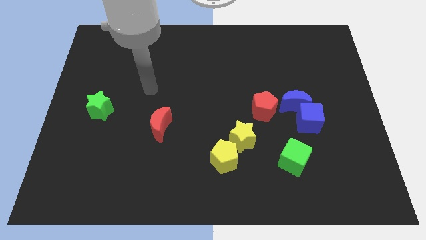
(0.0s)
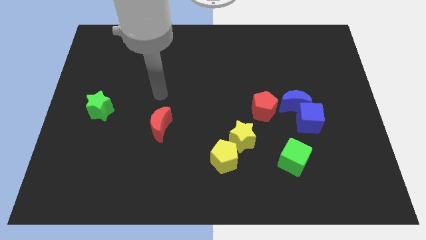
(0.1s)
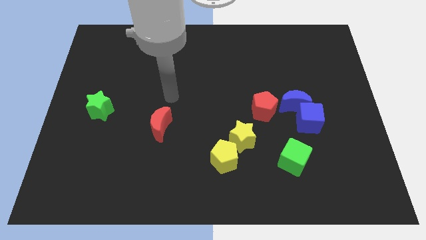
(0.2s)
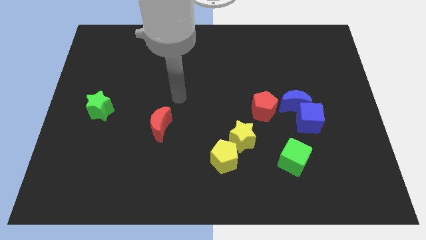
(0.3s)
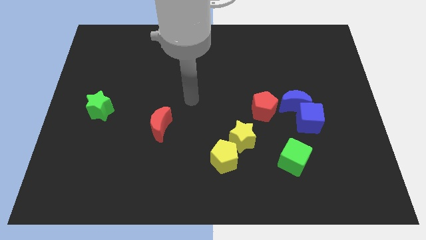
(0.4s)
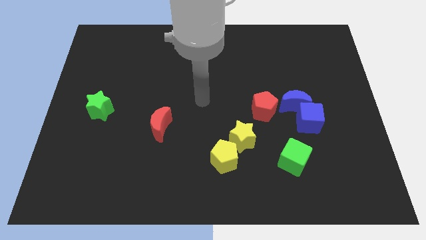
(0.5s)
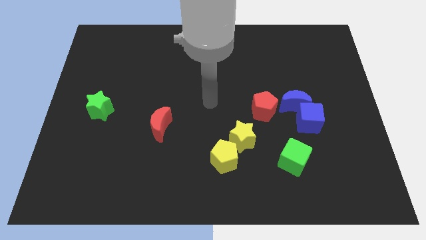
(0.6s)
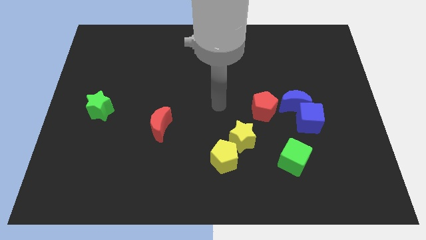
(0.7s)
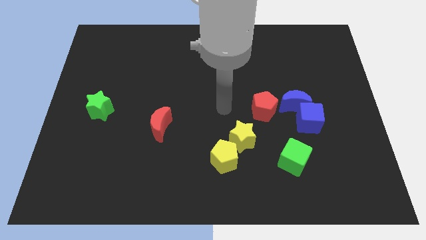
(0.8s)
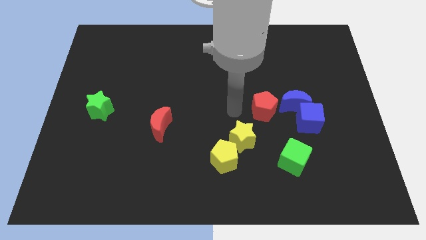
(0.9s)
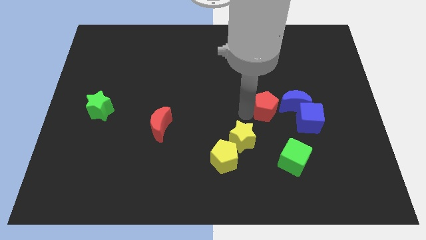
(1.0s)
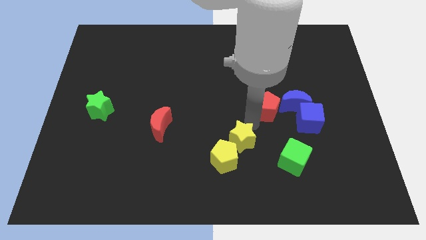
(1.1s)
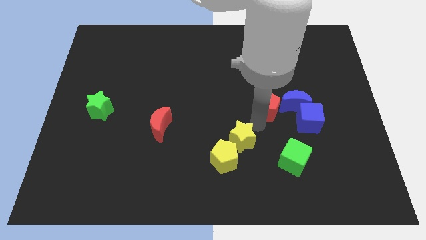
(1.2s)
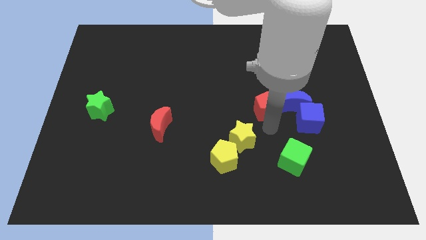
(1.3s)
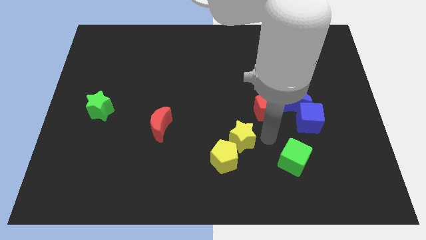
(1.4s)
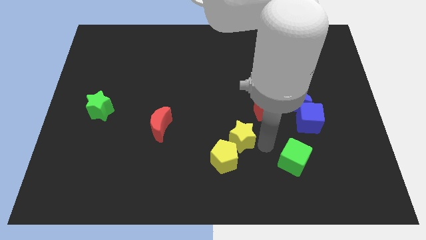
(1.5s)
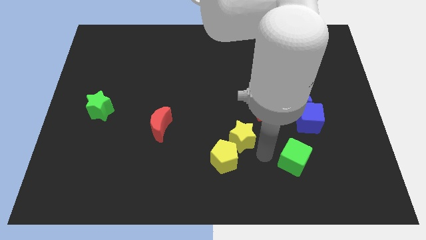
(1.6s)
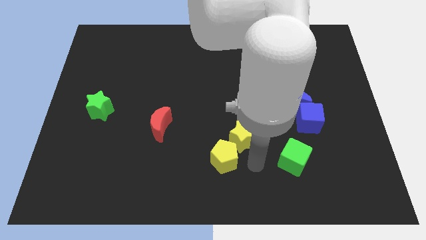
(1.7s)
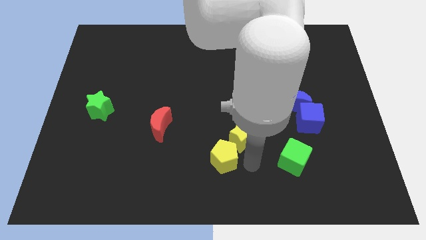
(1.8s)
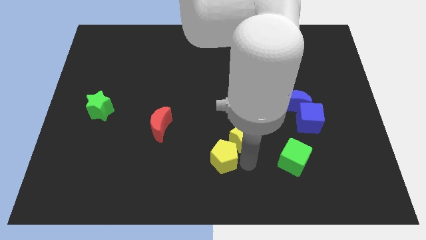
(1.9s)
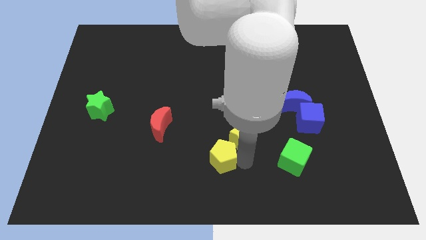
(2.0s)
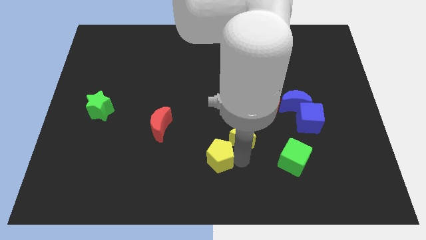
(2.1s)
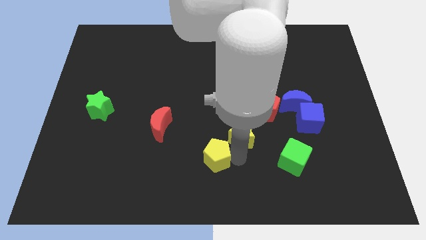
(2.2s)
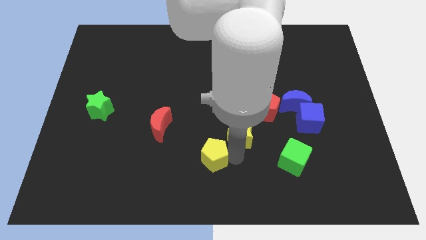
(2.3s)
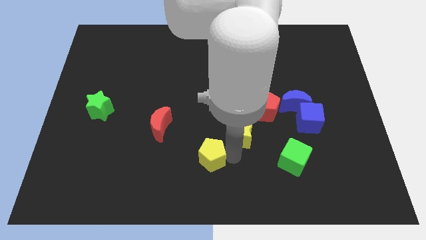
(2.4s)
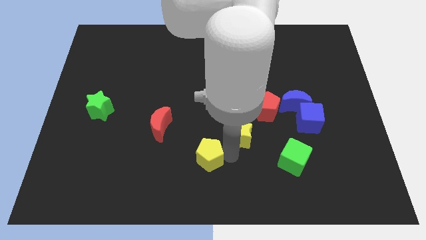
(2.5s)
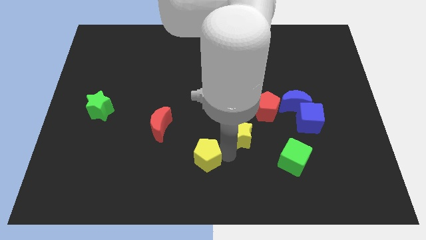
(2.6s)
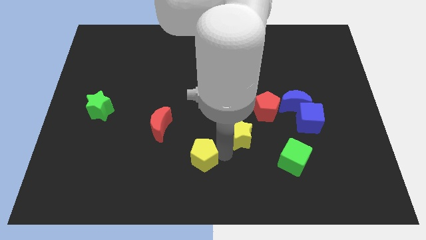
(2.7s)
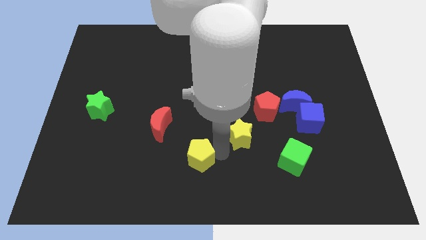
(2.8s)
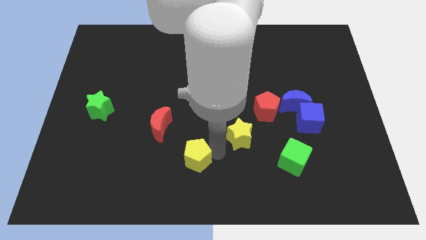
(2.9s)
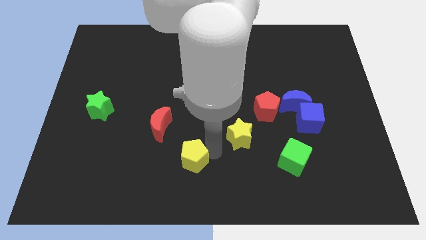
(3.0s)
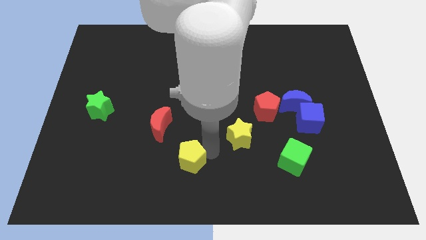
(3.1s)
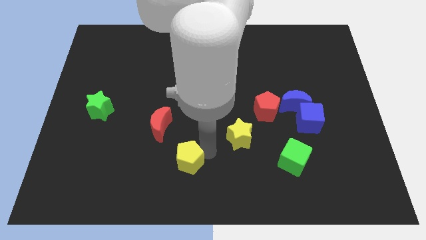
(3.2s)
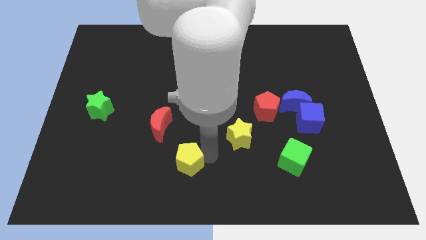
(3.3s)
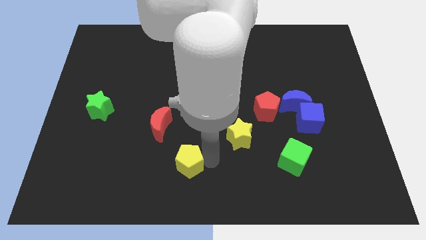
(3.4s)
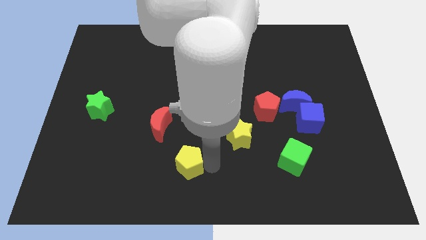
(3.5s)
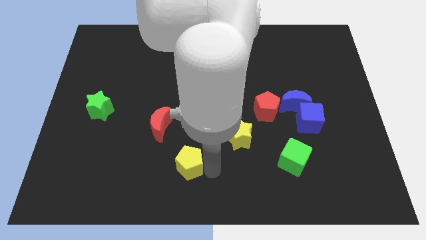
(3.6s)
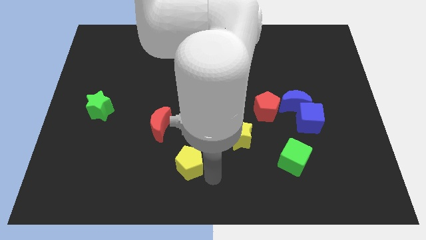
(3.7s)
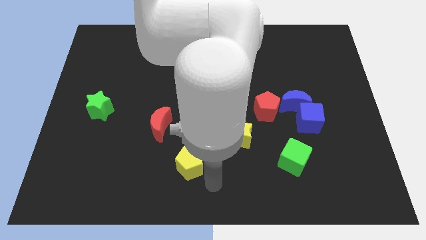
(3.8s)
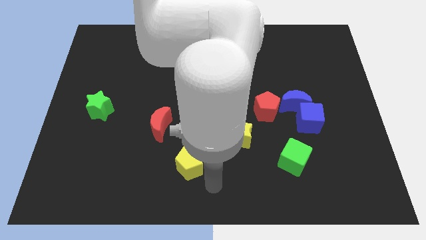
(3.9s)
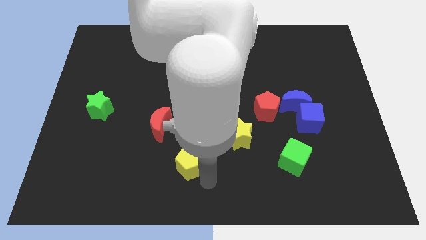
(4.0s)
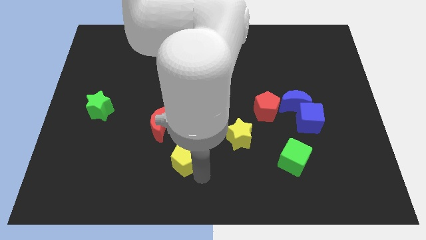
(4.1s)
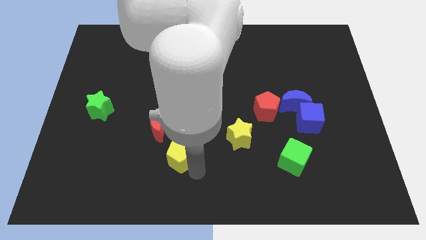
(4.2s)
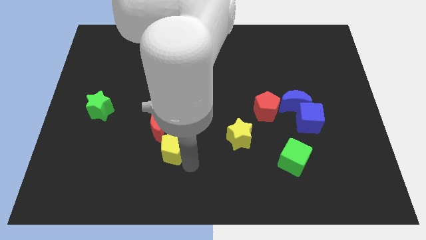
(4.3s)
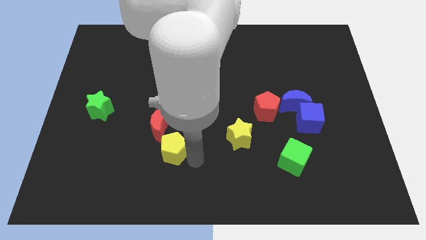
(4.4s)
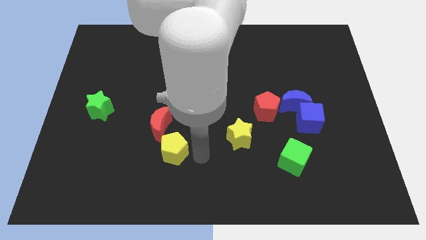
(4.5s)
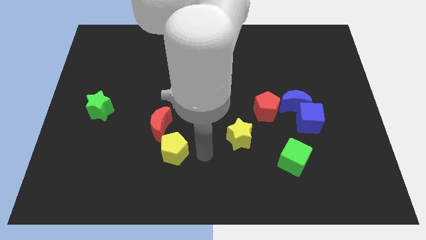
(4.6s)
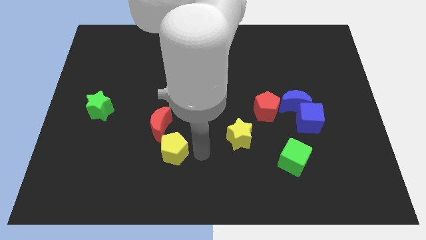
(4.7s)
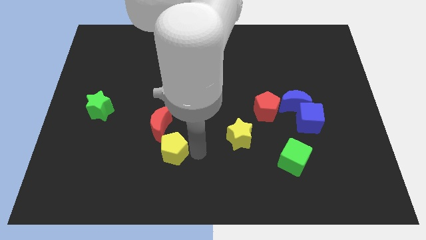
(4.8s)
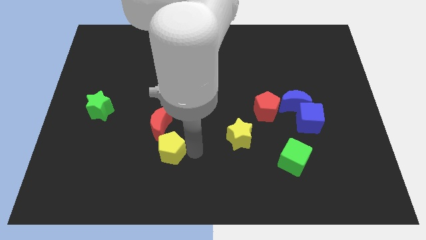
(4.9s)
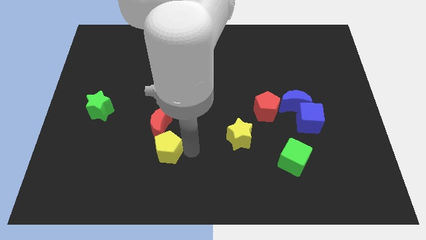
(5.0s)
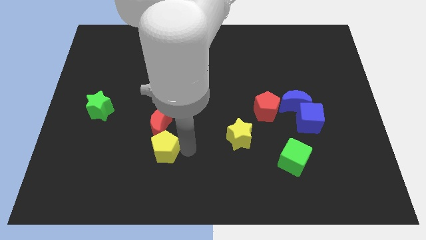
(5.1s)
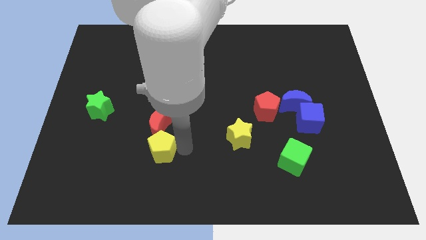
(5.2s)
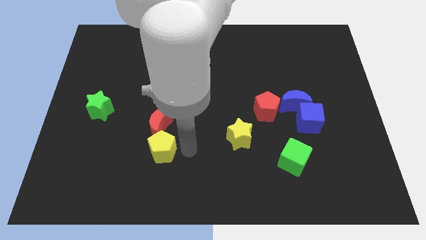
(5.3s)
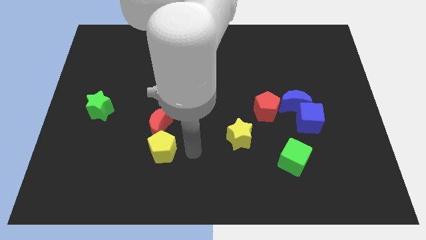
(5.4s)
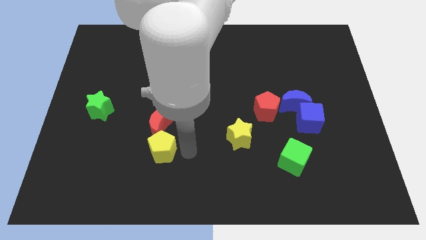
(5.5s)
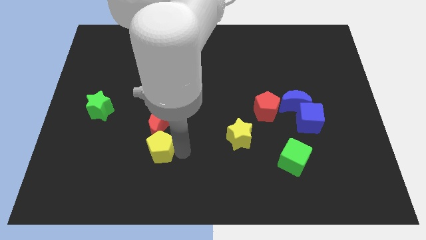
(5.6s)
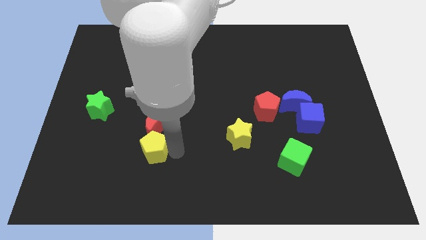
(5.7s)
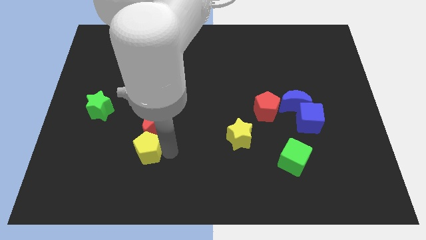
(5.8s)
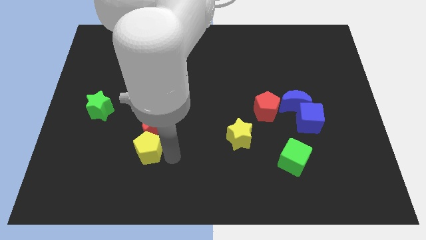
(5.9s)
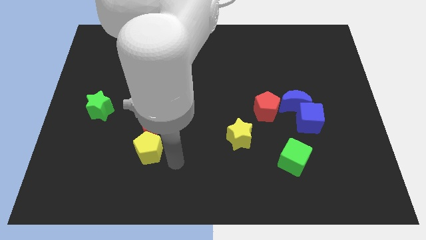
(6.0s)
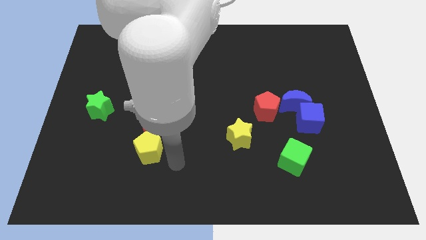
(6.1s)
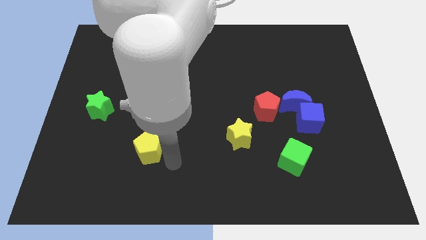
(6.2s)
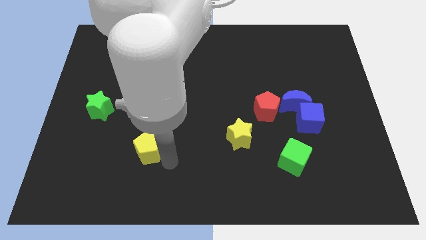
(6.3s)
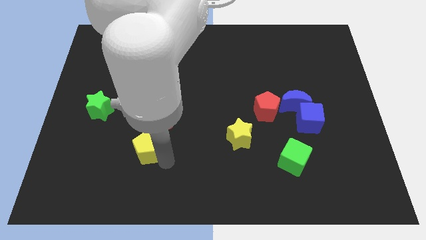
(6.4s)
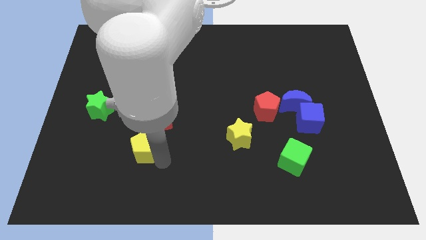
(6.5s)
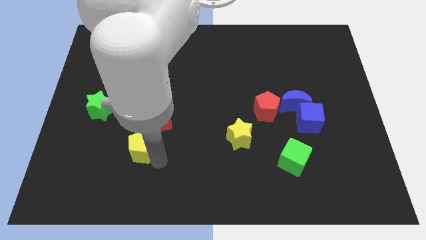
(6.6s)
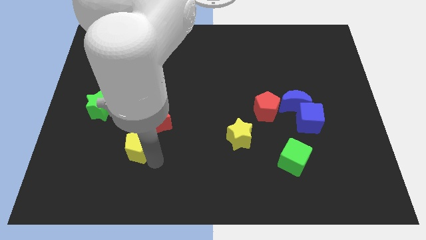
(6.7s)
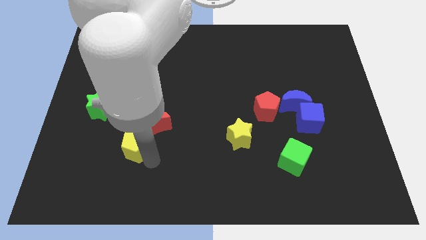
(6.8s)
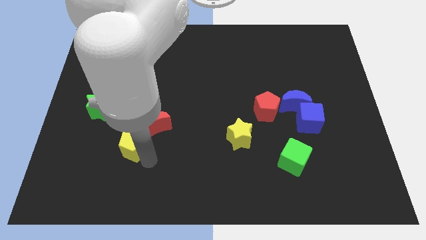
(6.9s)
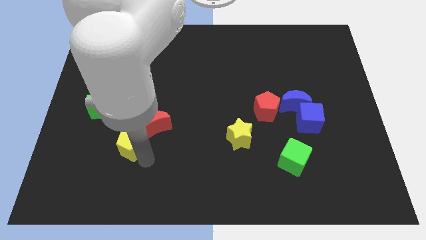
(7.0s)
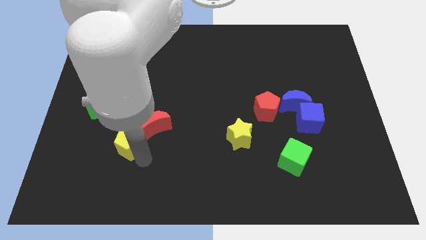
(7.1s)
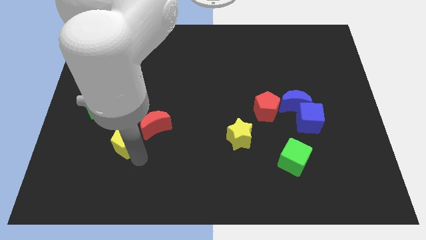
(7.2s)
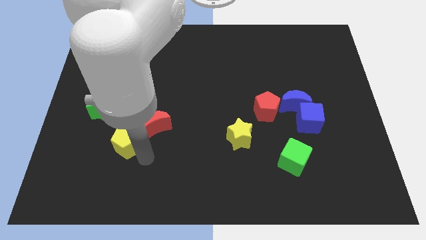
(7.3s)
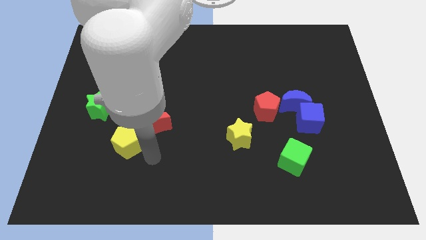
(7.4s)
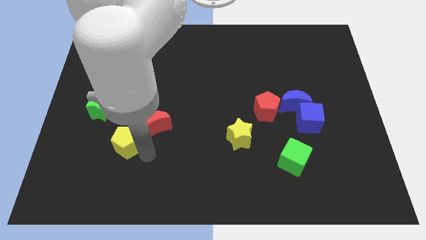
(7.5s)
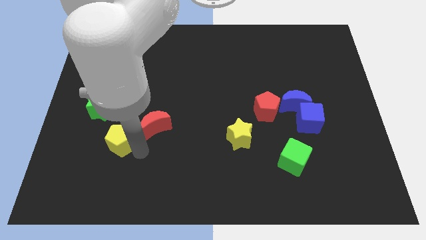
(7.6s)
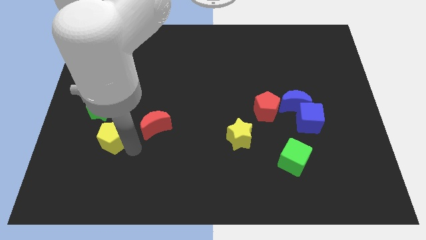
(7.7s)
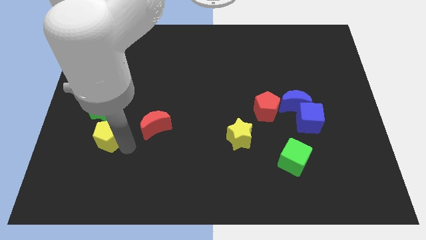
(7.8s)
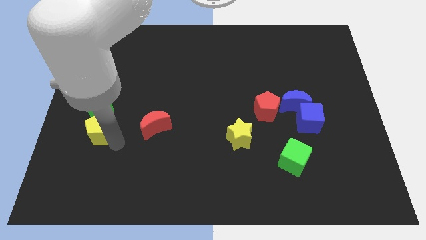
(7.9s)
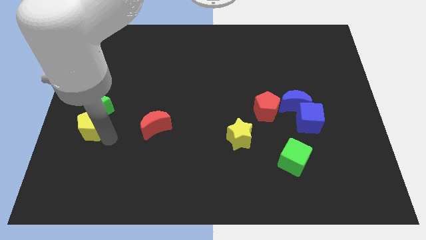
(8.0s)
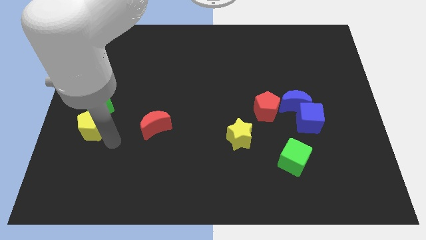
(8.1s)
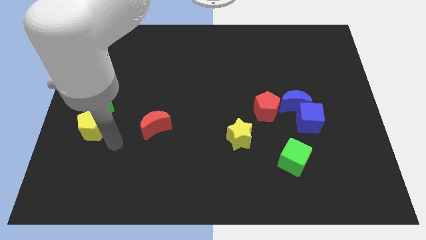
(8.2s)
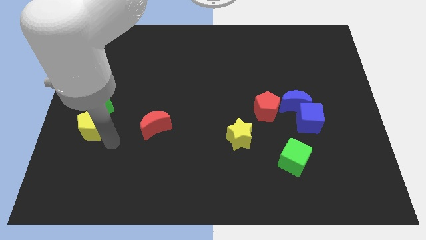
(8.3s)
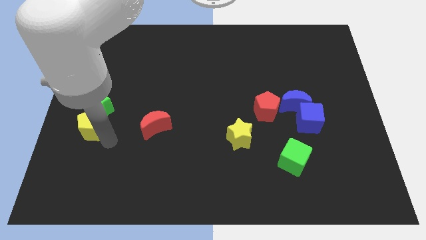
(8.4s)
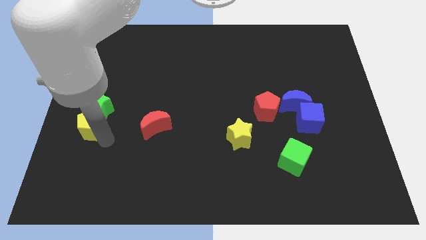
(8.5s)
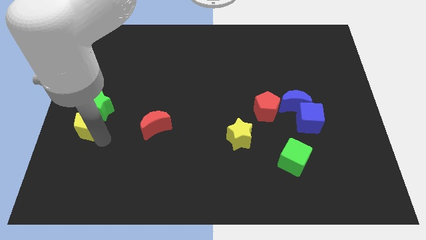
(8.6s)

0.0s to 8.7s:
move the yellow pentagon to the left side
